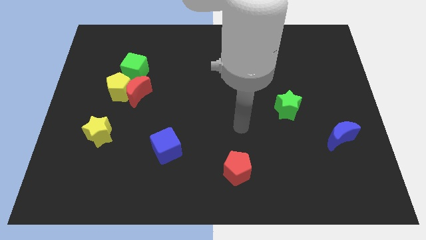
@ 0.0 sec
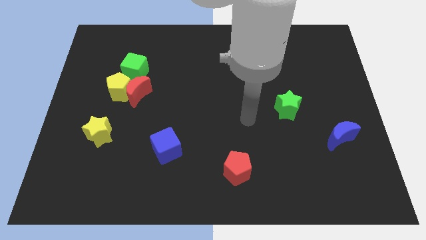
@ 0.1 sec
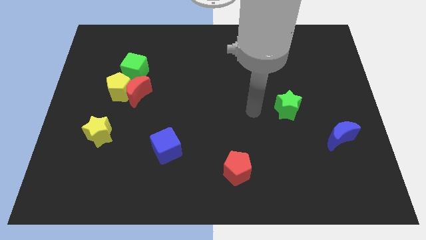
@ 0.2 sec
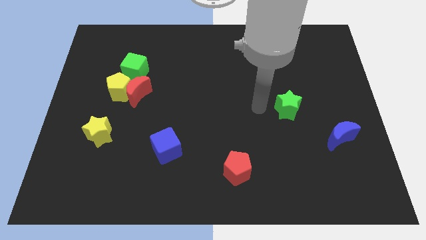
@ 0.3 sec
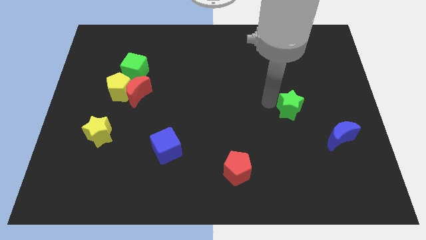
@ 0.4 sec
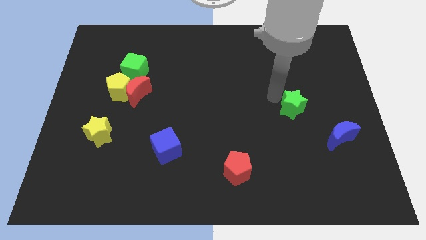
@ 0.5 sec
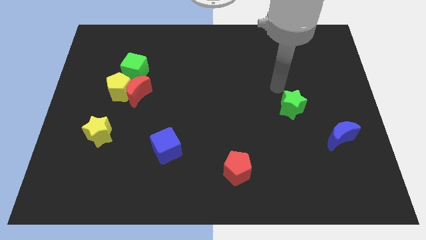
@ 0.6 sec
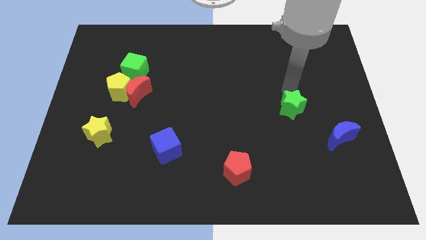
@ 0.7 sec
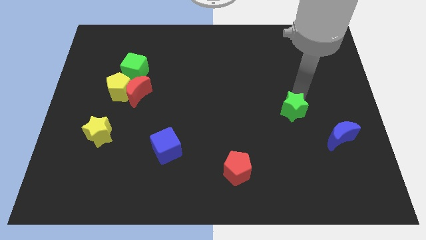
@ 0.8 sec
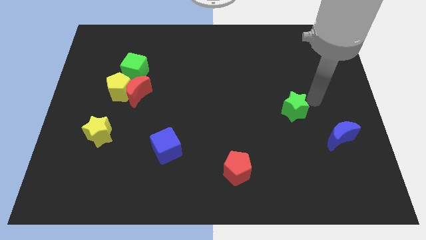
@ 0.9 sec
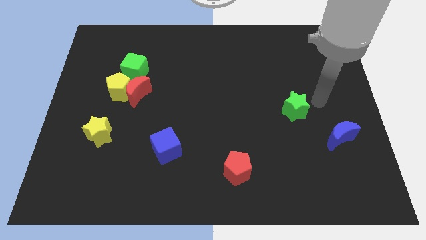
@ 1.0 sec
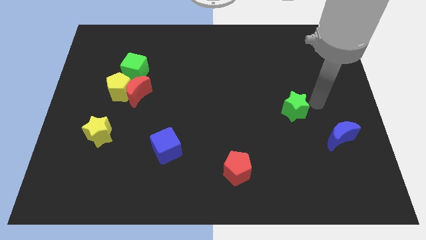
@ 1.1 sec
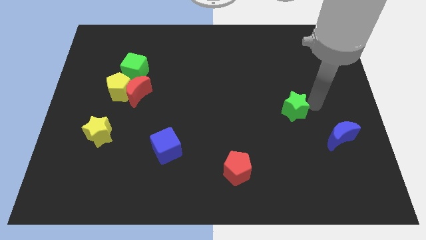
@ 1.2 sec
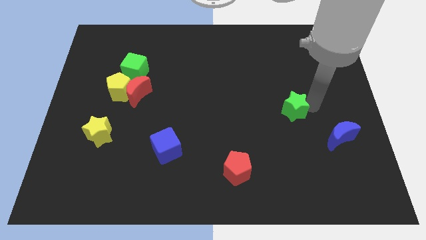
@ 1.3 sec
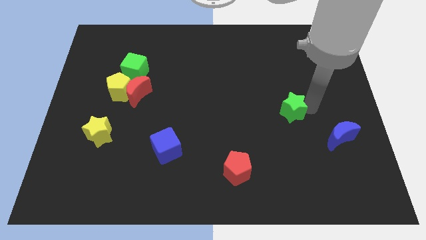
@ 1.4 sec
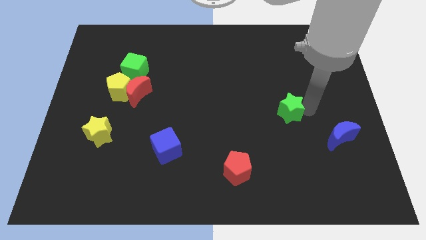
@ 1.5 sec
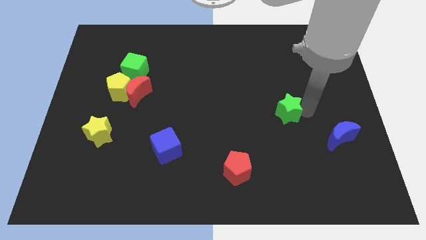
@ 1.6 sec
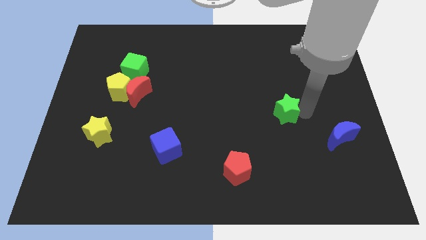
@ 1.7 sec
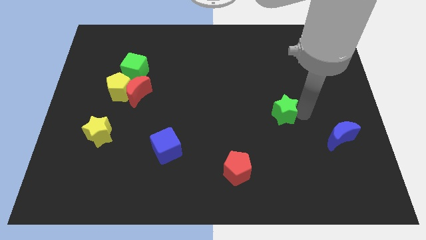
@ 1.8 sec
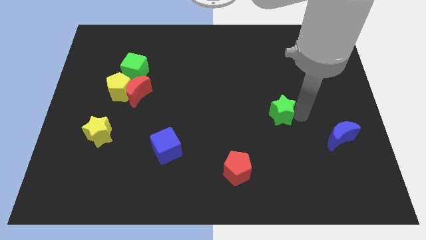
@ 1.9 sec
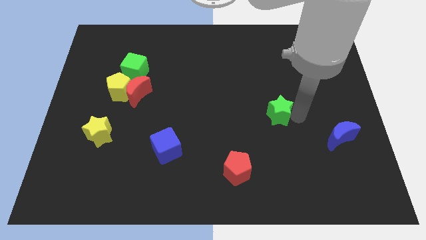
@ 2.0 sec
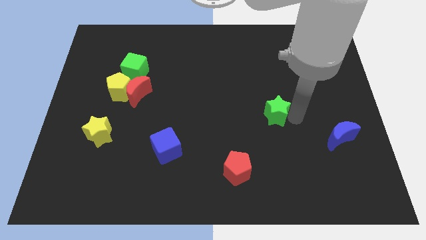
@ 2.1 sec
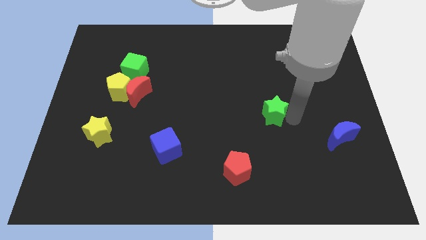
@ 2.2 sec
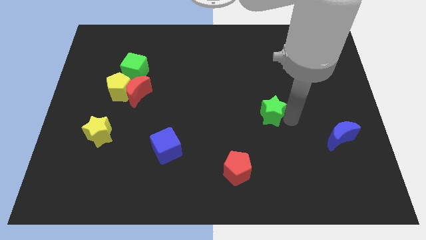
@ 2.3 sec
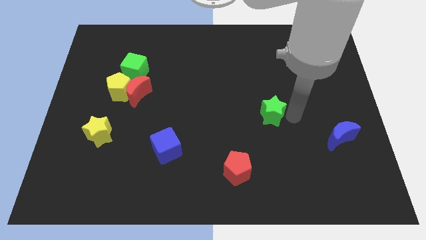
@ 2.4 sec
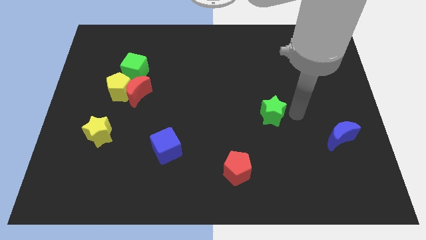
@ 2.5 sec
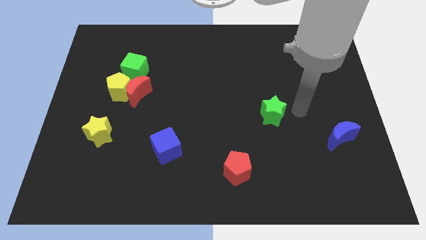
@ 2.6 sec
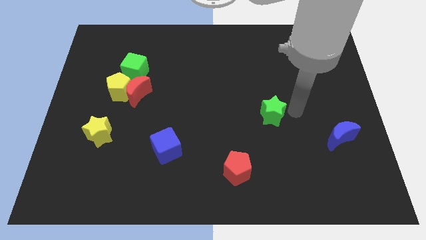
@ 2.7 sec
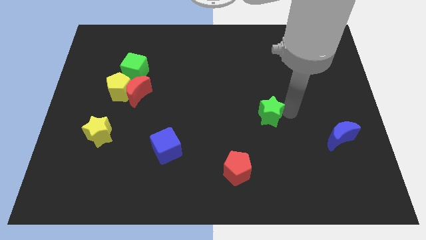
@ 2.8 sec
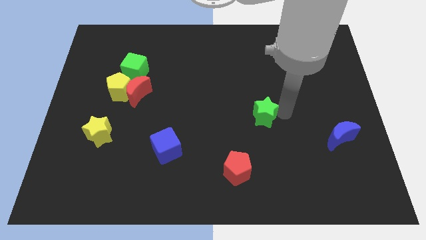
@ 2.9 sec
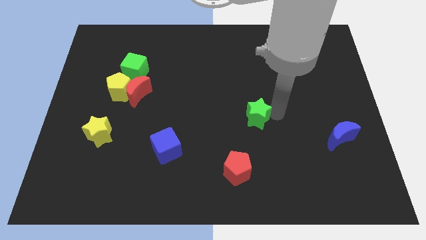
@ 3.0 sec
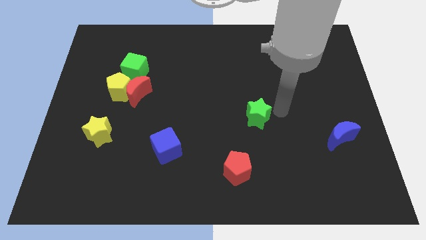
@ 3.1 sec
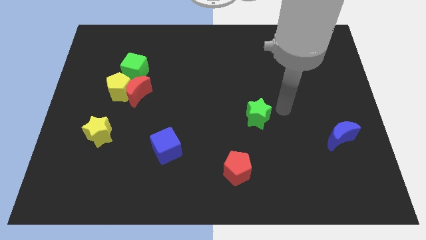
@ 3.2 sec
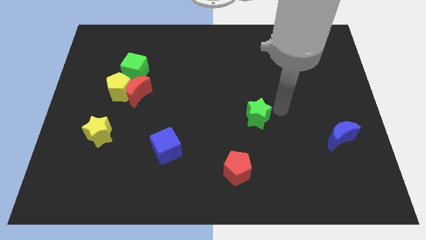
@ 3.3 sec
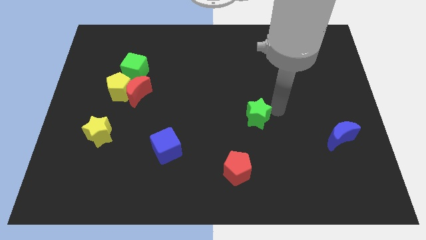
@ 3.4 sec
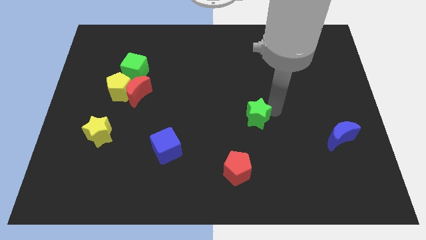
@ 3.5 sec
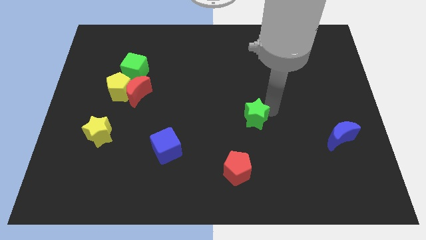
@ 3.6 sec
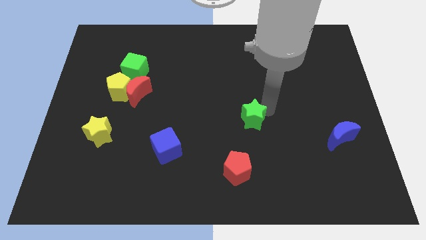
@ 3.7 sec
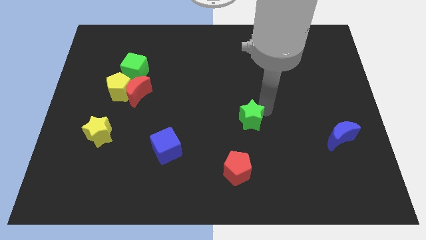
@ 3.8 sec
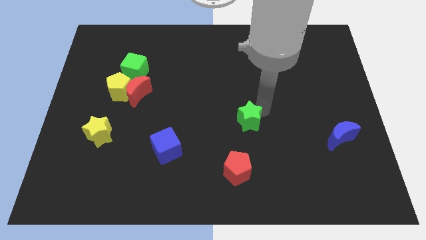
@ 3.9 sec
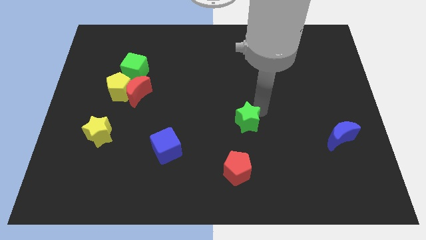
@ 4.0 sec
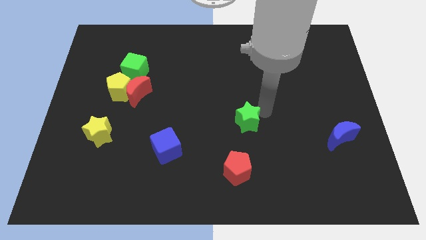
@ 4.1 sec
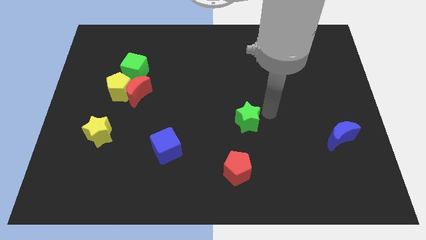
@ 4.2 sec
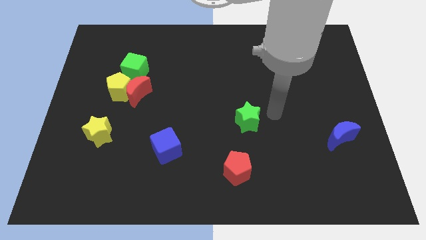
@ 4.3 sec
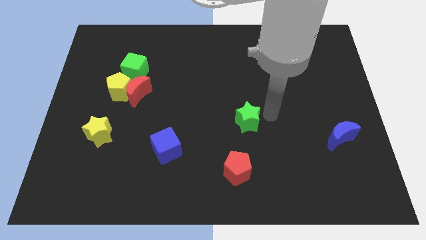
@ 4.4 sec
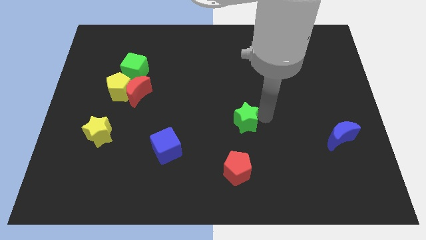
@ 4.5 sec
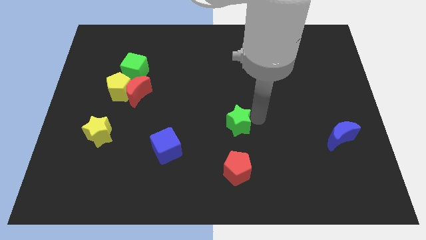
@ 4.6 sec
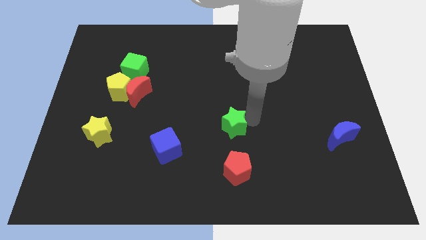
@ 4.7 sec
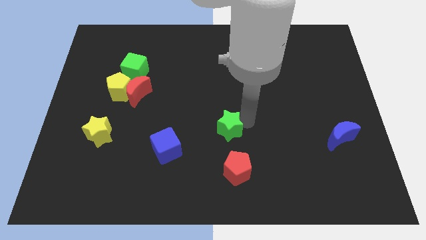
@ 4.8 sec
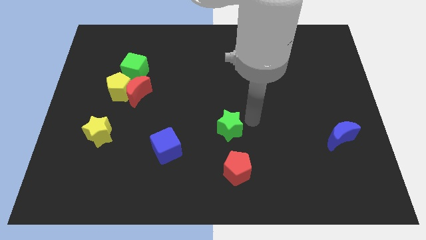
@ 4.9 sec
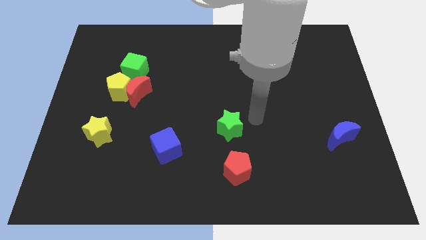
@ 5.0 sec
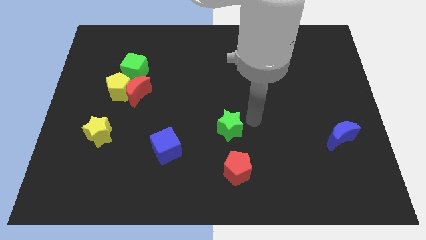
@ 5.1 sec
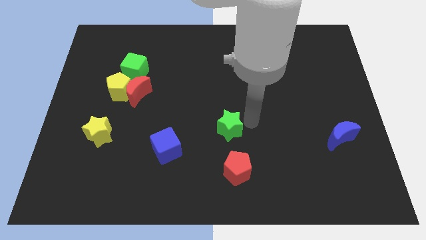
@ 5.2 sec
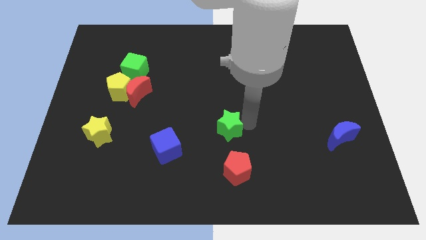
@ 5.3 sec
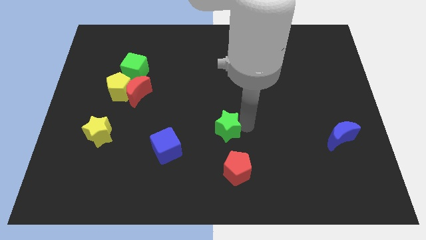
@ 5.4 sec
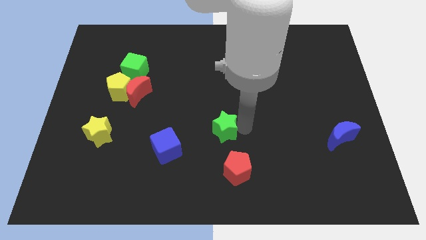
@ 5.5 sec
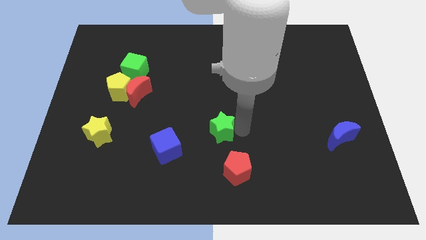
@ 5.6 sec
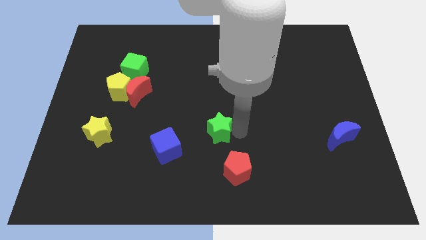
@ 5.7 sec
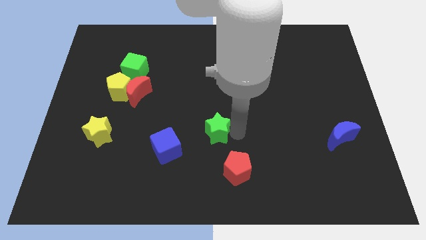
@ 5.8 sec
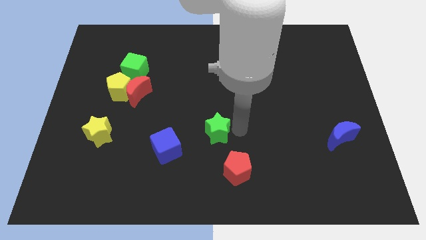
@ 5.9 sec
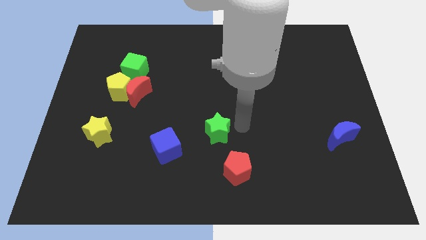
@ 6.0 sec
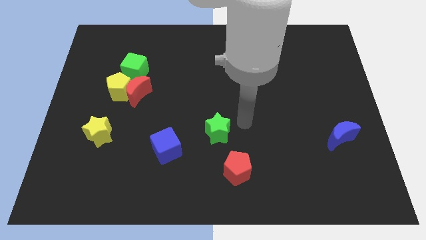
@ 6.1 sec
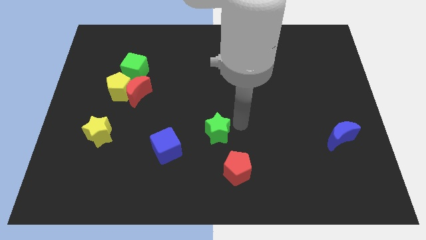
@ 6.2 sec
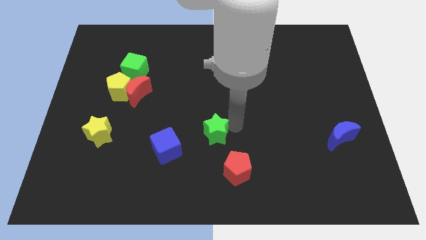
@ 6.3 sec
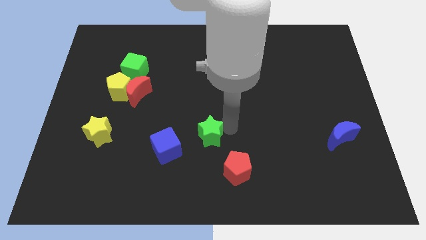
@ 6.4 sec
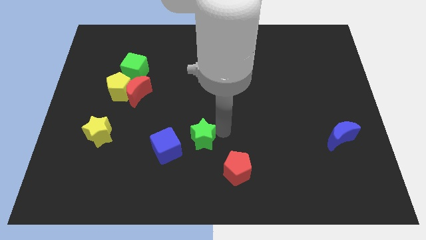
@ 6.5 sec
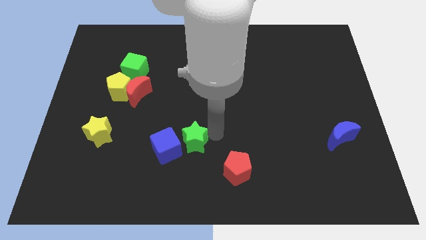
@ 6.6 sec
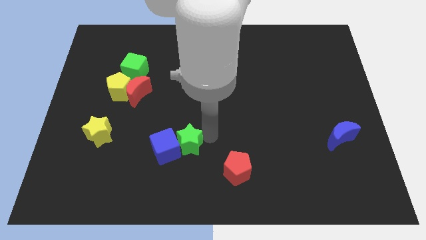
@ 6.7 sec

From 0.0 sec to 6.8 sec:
move the green star close to the blue cube
